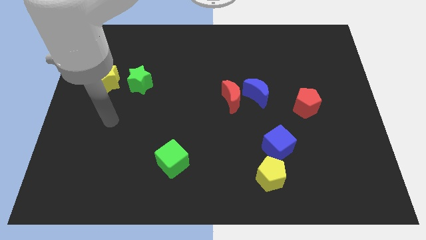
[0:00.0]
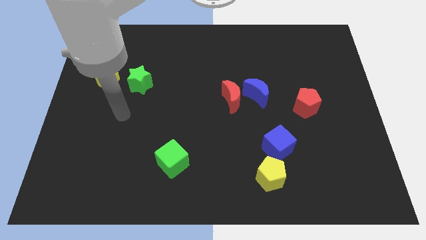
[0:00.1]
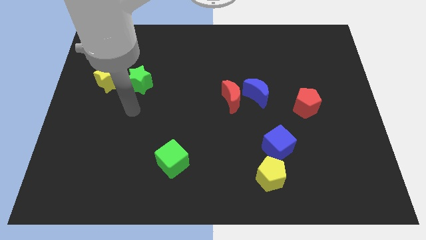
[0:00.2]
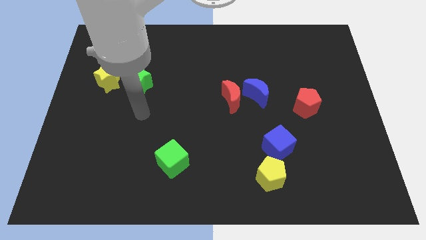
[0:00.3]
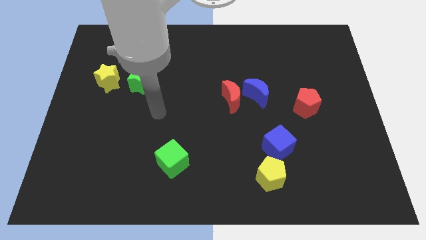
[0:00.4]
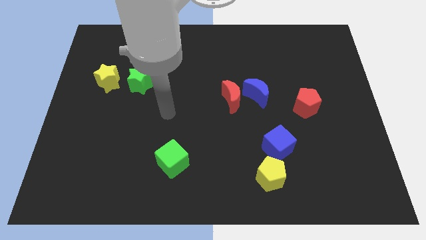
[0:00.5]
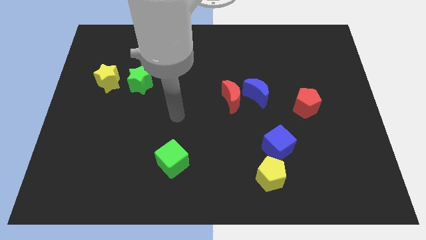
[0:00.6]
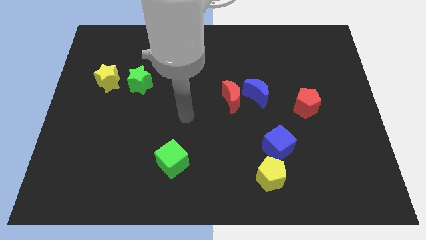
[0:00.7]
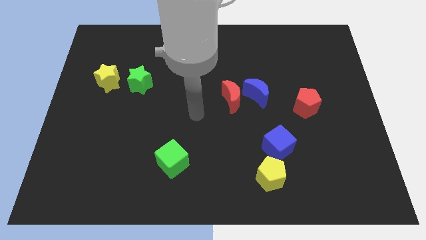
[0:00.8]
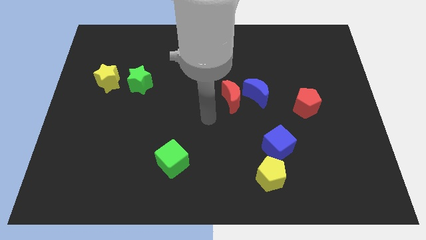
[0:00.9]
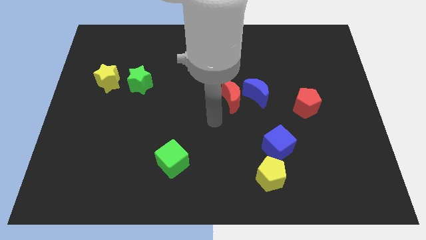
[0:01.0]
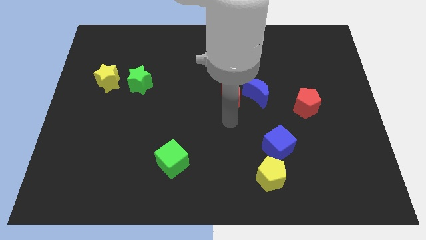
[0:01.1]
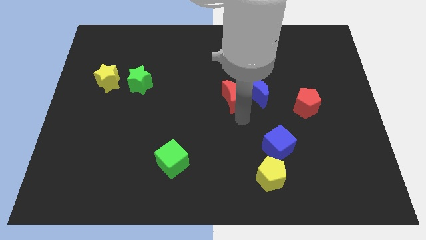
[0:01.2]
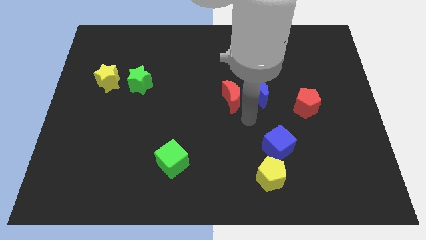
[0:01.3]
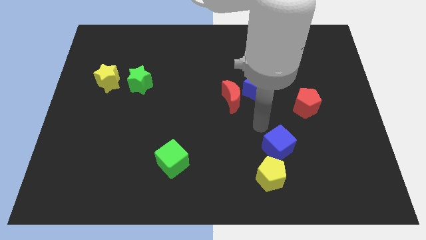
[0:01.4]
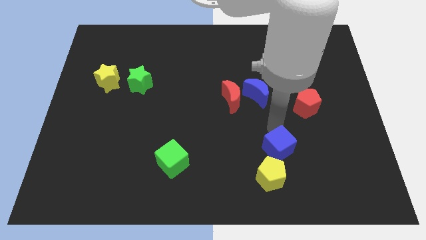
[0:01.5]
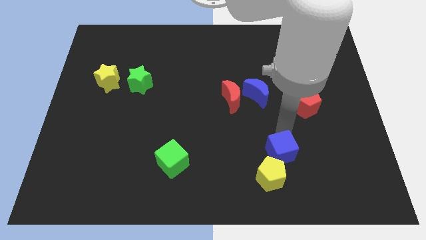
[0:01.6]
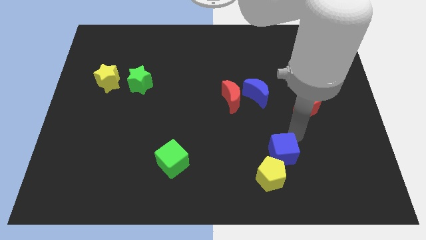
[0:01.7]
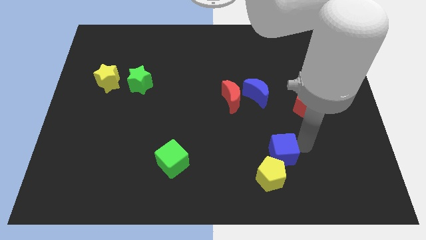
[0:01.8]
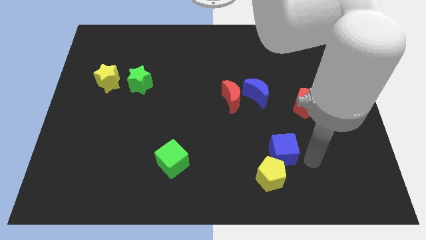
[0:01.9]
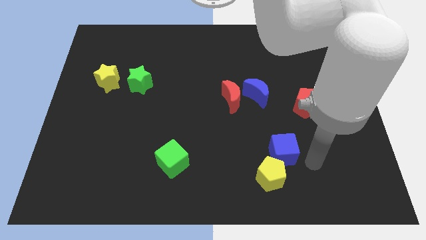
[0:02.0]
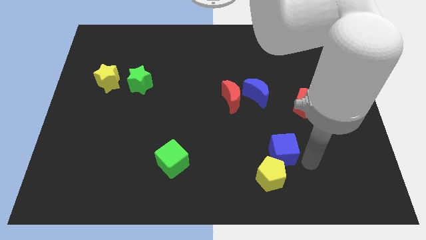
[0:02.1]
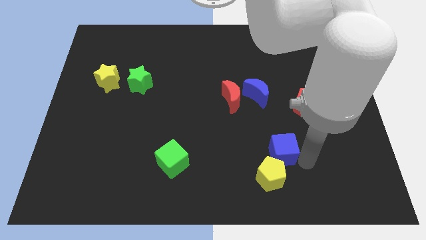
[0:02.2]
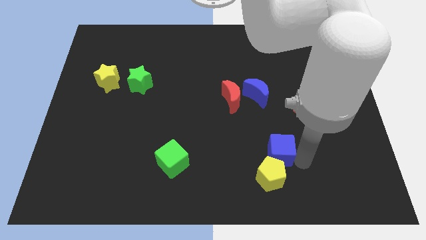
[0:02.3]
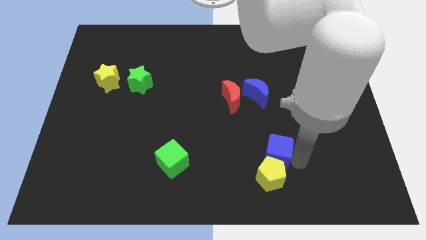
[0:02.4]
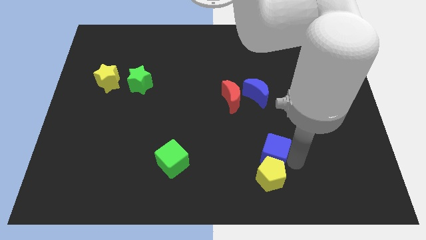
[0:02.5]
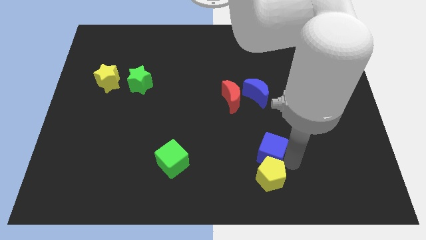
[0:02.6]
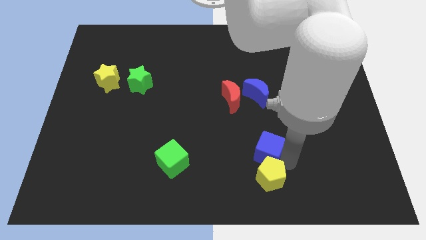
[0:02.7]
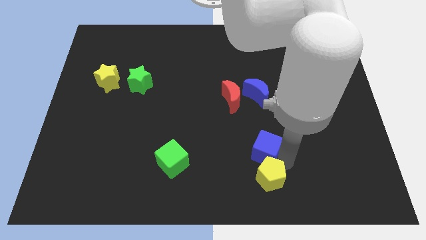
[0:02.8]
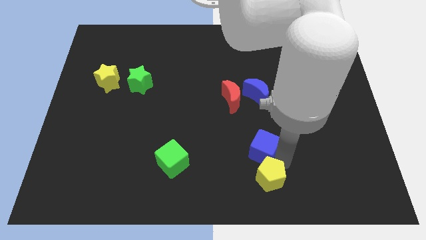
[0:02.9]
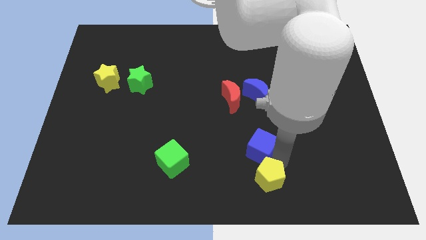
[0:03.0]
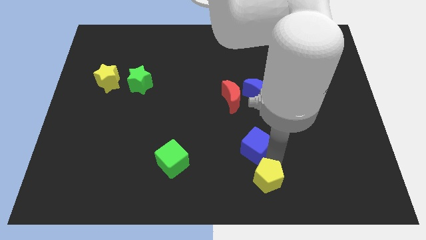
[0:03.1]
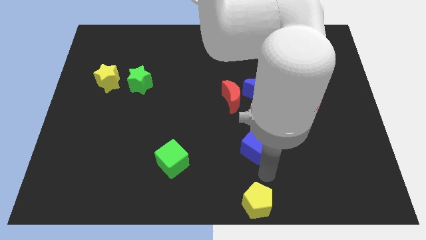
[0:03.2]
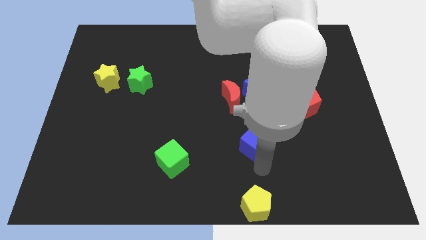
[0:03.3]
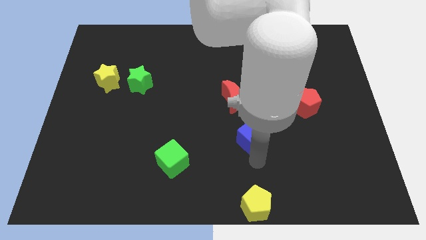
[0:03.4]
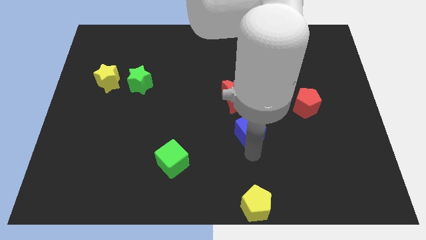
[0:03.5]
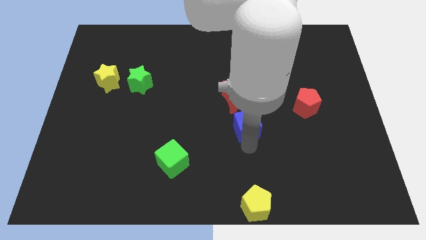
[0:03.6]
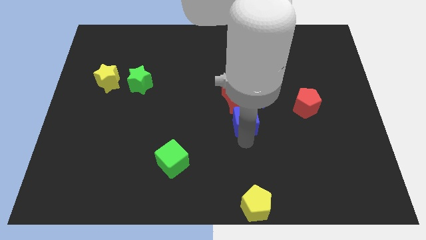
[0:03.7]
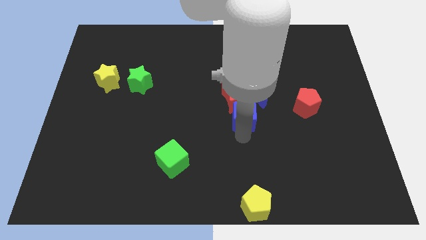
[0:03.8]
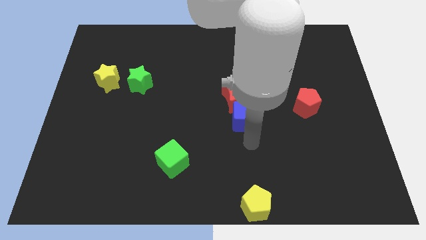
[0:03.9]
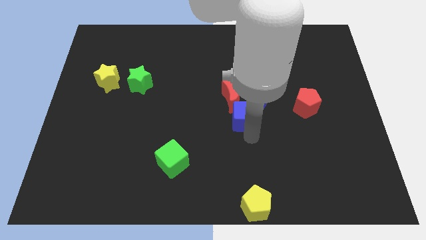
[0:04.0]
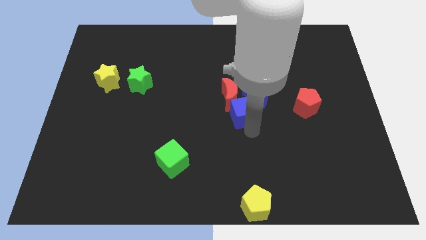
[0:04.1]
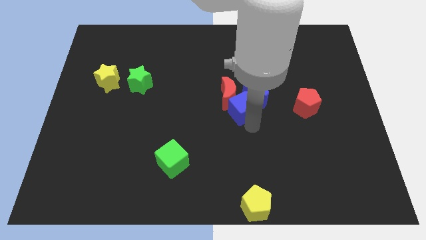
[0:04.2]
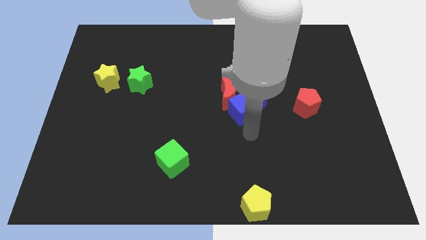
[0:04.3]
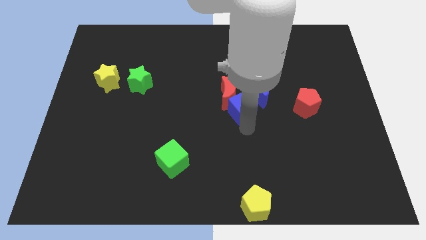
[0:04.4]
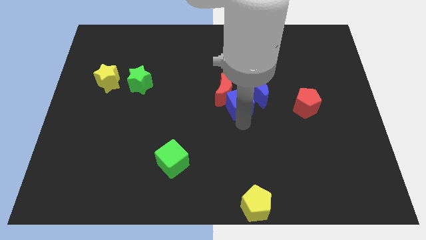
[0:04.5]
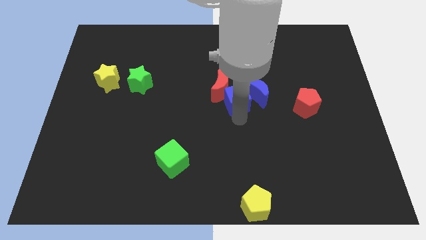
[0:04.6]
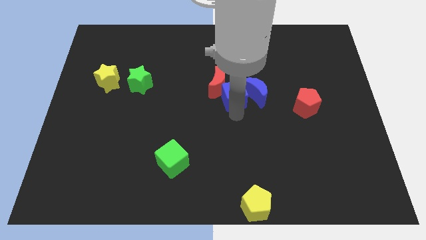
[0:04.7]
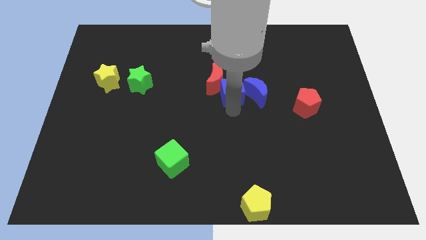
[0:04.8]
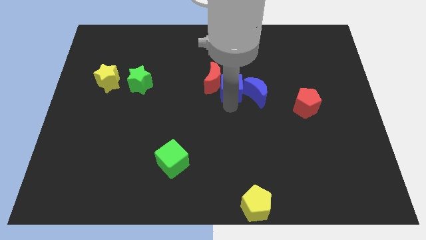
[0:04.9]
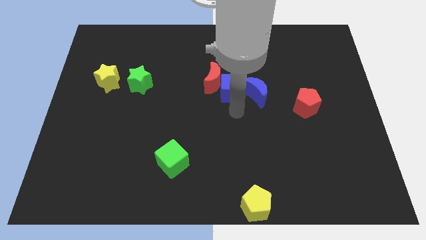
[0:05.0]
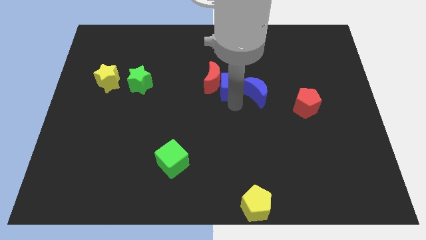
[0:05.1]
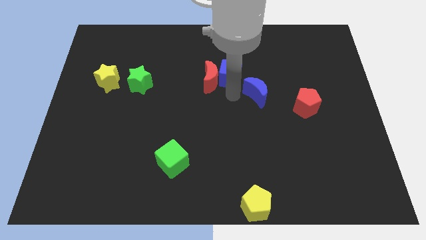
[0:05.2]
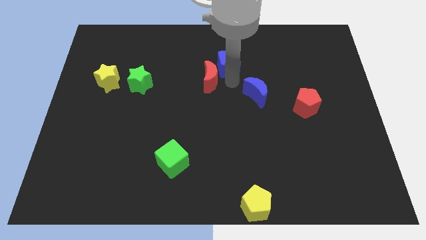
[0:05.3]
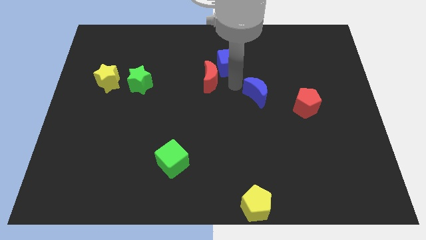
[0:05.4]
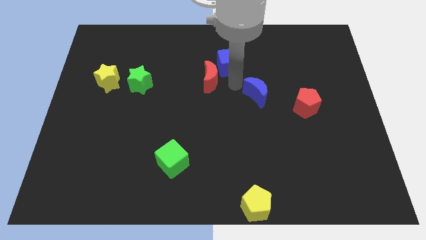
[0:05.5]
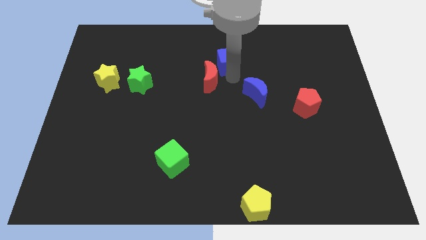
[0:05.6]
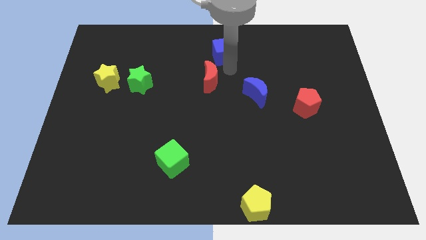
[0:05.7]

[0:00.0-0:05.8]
put the blue cube to the top

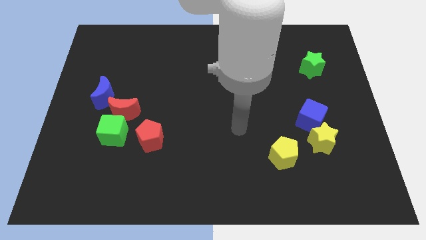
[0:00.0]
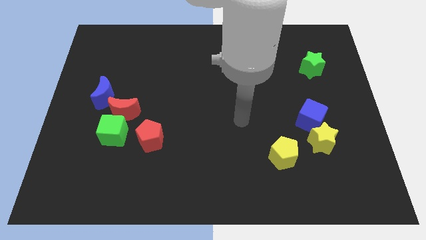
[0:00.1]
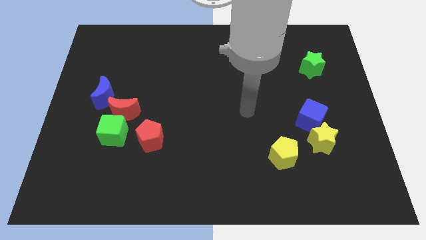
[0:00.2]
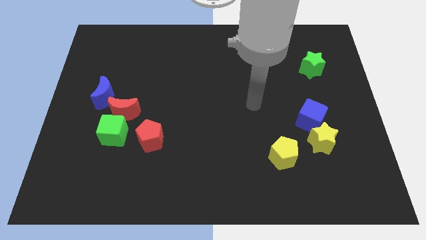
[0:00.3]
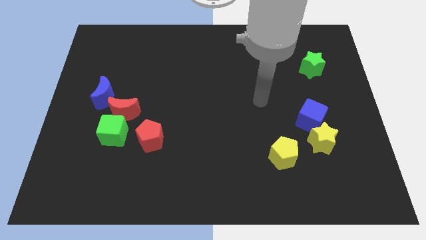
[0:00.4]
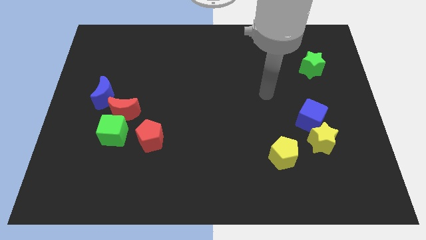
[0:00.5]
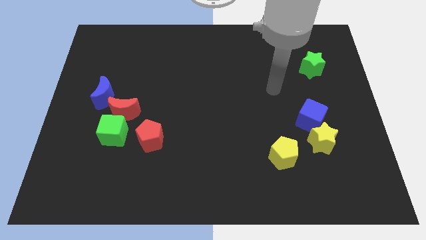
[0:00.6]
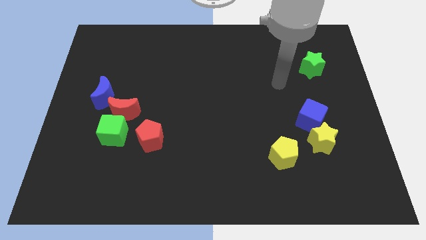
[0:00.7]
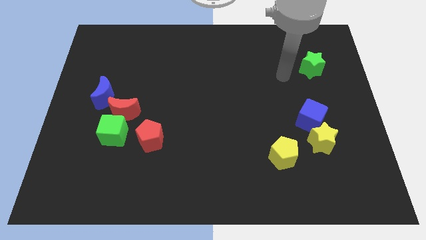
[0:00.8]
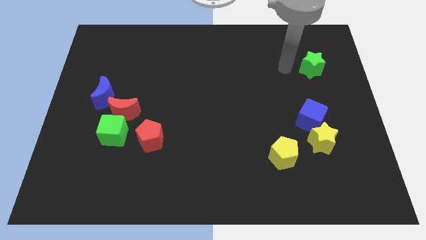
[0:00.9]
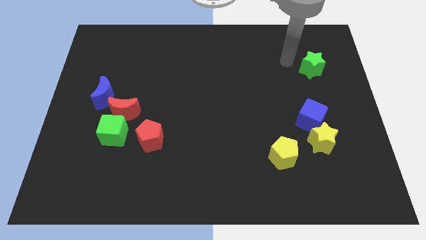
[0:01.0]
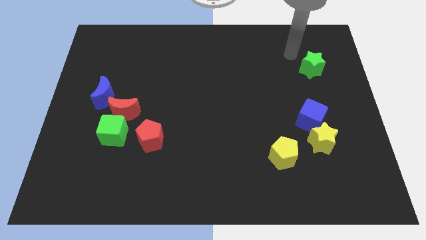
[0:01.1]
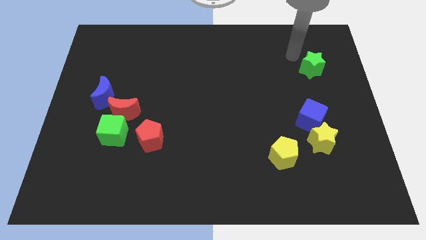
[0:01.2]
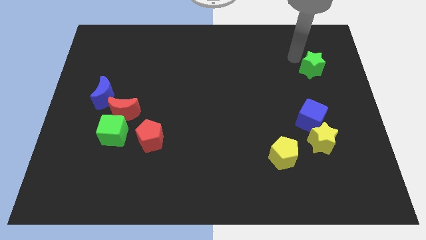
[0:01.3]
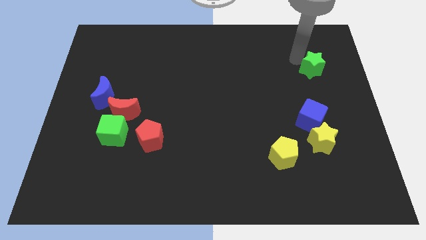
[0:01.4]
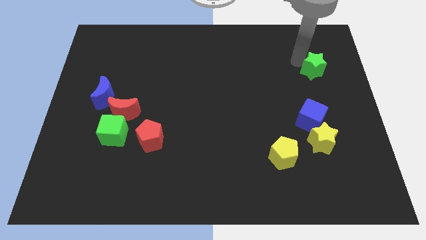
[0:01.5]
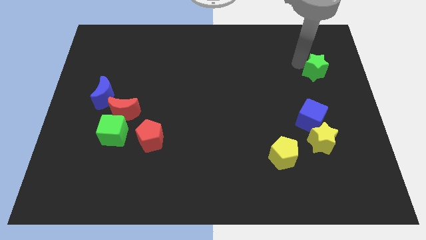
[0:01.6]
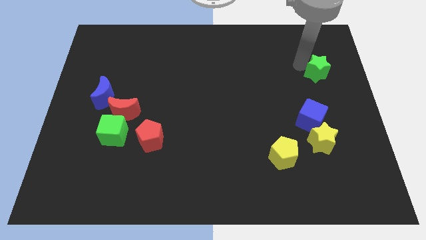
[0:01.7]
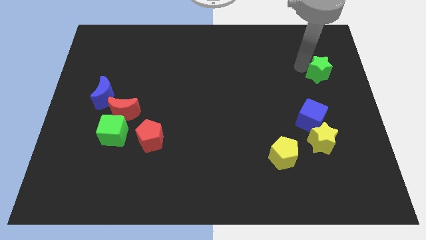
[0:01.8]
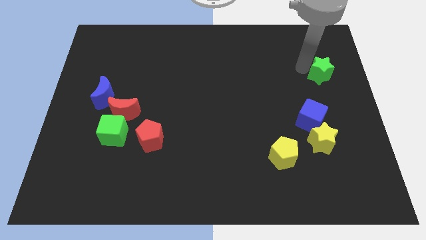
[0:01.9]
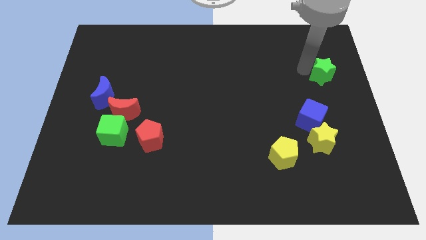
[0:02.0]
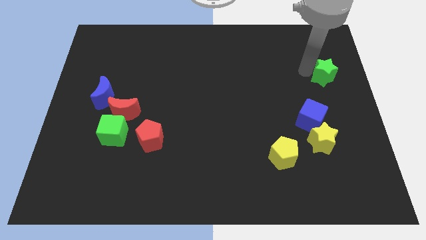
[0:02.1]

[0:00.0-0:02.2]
put the green star to the right side of the board
